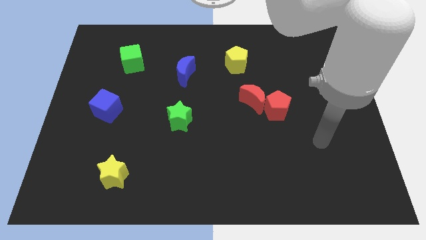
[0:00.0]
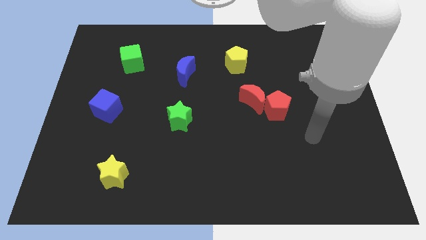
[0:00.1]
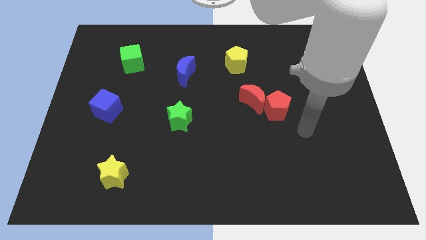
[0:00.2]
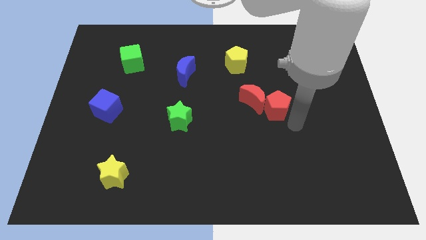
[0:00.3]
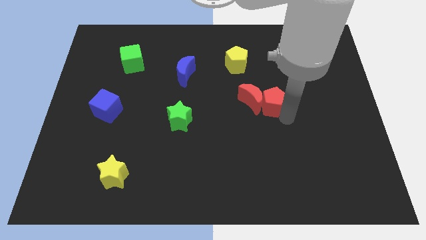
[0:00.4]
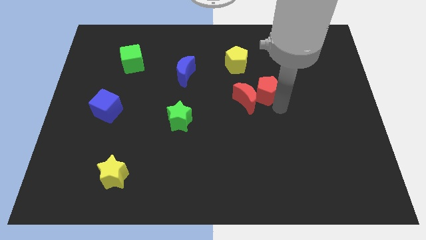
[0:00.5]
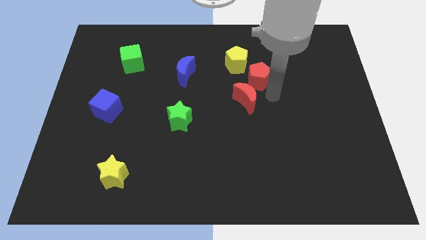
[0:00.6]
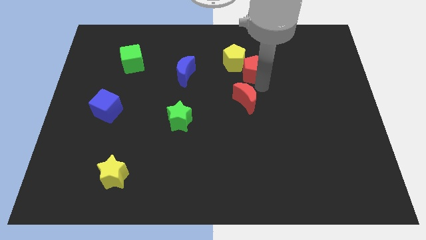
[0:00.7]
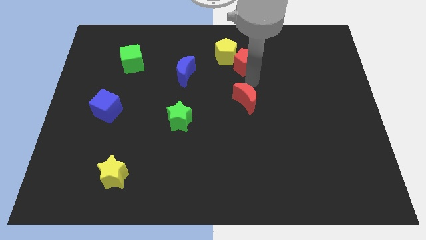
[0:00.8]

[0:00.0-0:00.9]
move the red moon away from the red pentagon

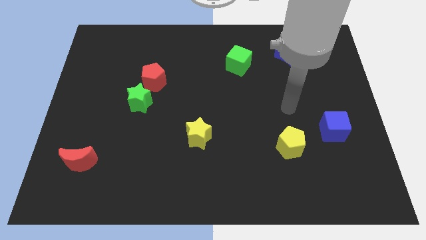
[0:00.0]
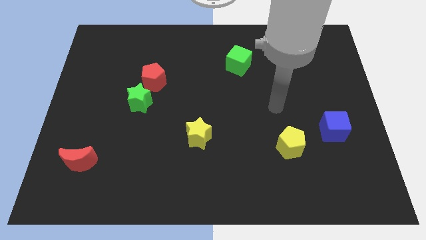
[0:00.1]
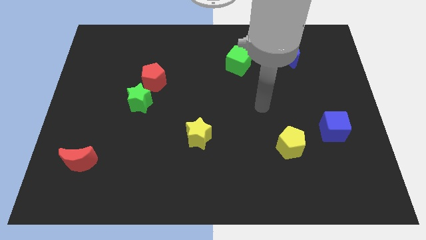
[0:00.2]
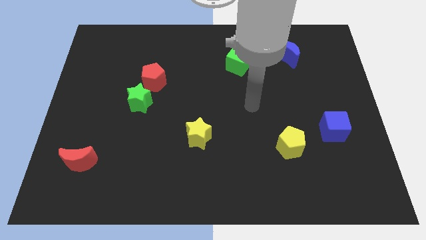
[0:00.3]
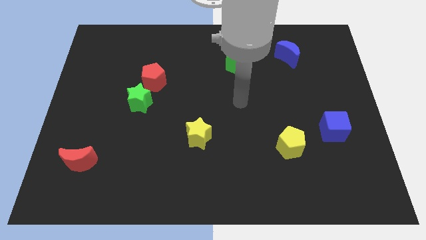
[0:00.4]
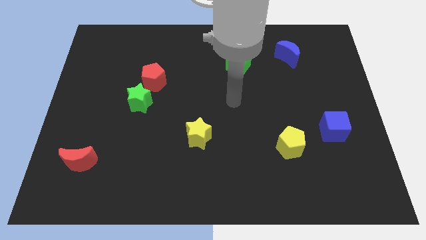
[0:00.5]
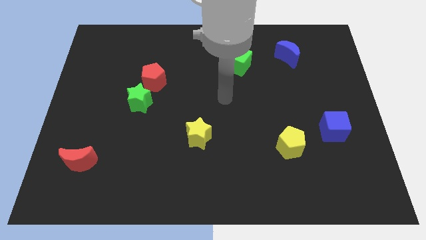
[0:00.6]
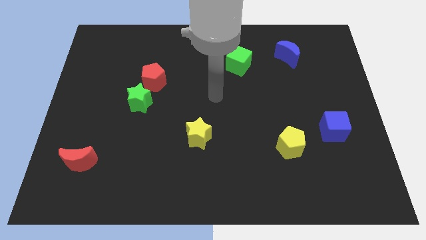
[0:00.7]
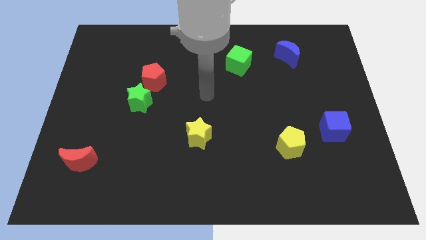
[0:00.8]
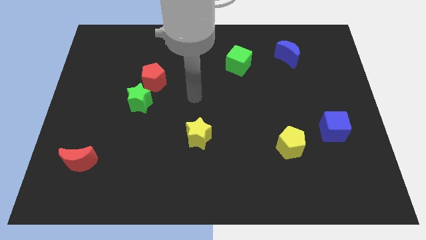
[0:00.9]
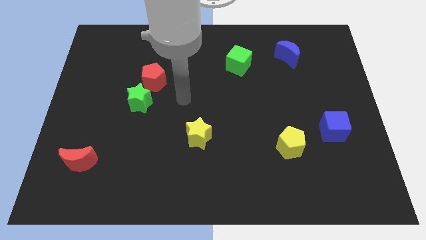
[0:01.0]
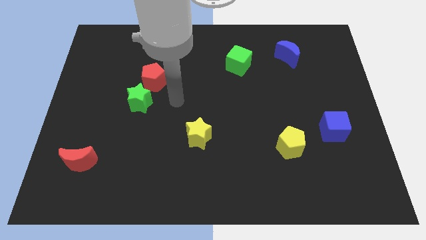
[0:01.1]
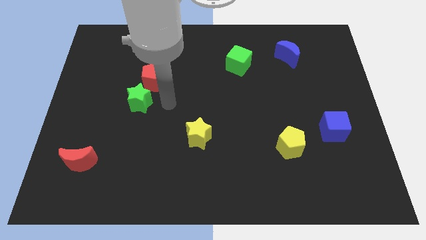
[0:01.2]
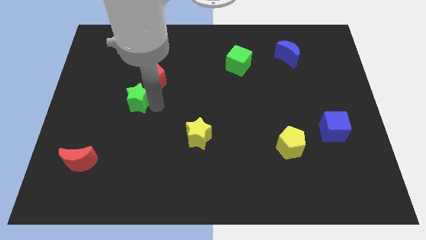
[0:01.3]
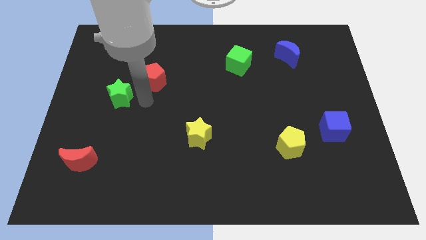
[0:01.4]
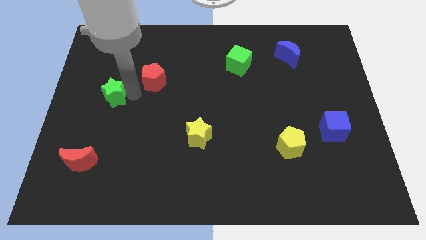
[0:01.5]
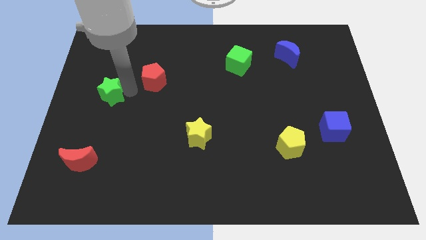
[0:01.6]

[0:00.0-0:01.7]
separate the red pentagon from the green star

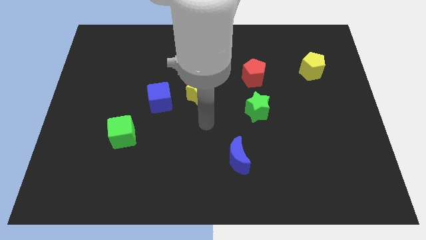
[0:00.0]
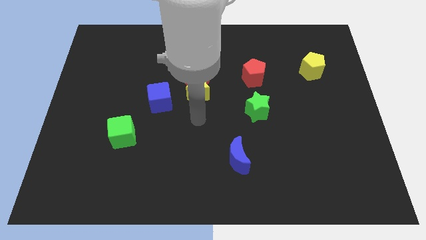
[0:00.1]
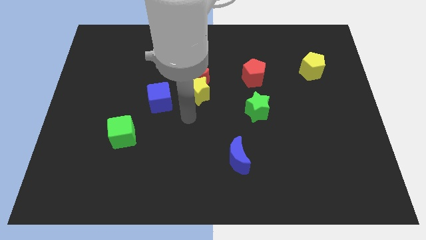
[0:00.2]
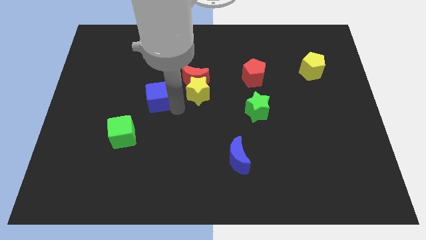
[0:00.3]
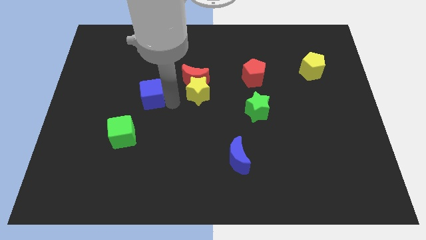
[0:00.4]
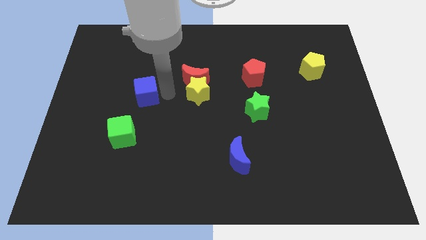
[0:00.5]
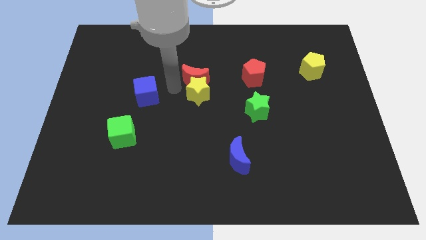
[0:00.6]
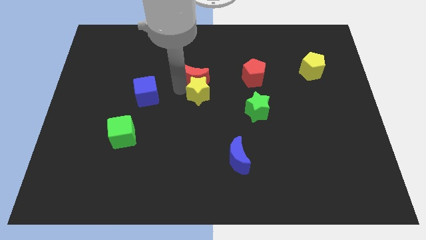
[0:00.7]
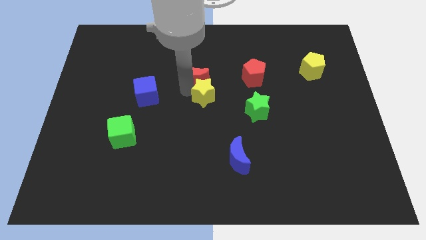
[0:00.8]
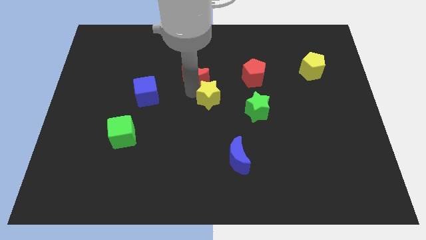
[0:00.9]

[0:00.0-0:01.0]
move the yellow star away from the red moon and blue cube

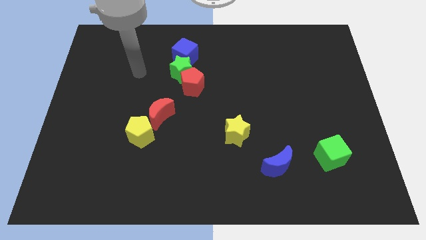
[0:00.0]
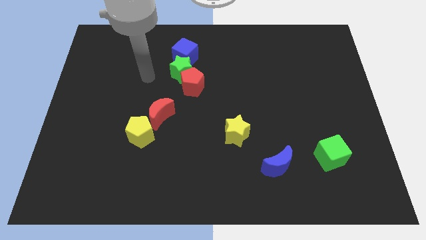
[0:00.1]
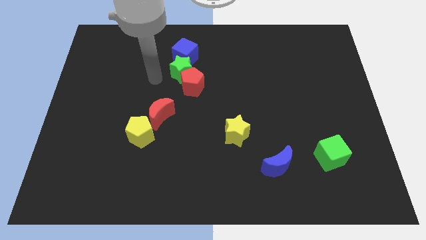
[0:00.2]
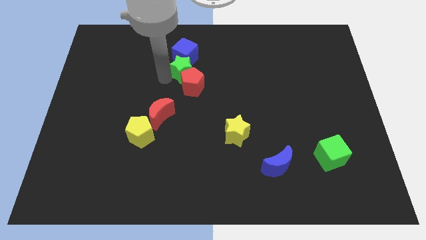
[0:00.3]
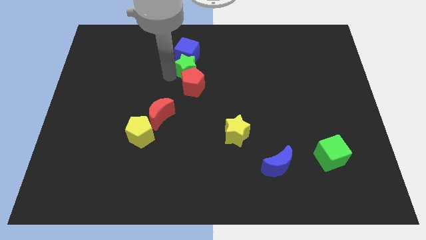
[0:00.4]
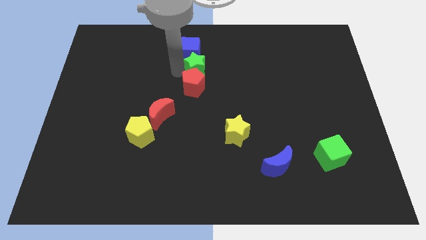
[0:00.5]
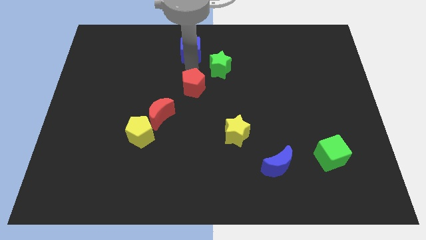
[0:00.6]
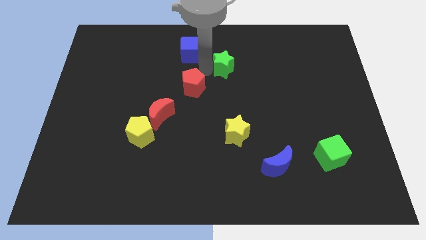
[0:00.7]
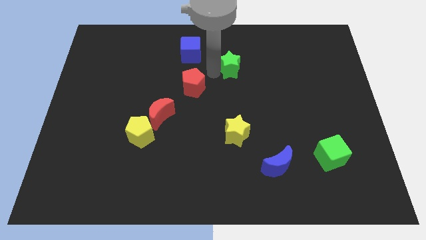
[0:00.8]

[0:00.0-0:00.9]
move the red pentagon away from the green star

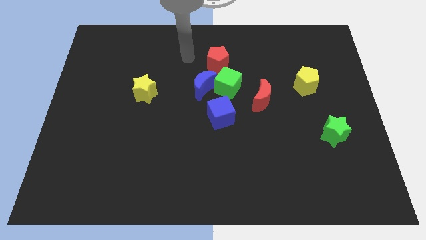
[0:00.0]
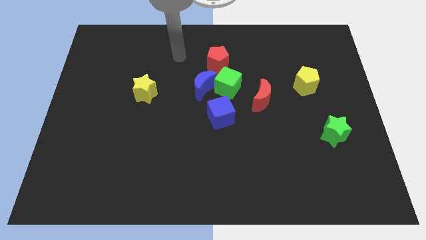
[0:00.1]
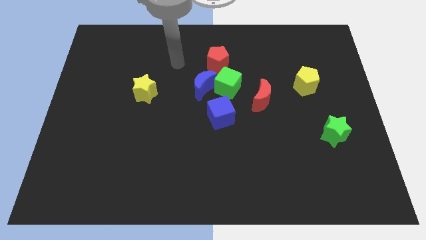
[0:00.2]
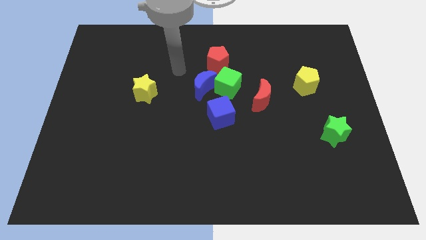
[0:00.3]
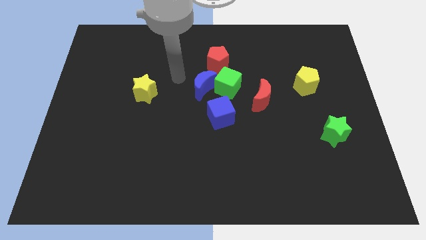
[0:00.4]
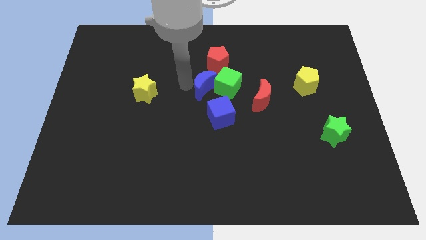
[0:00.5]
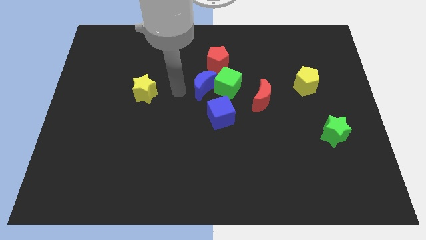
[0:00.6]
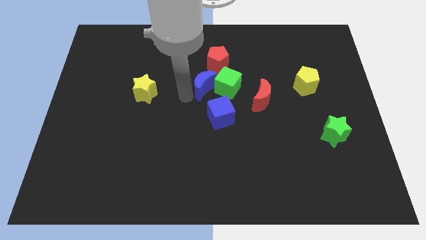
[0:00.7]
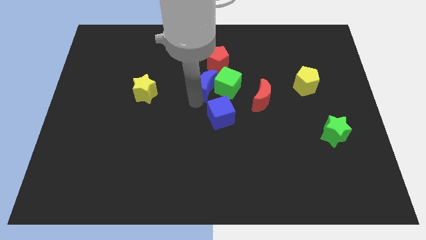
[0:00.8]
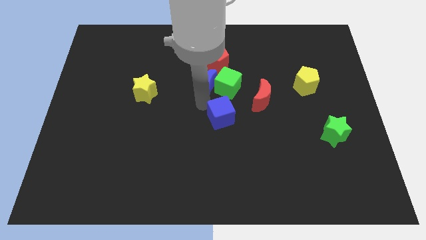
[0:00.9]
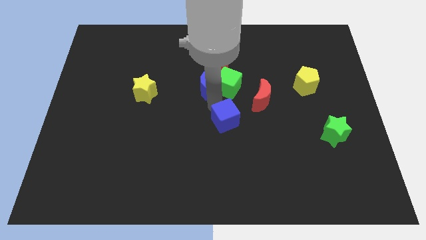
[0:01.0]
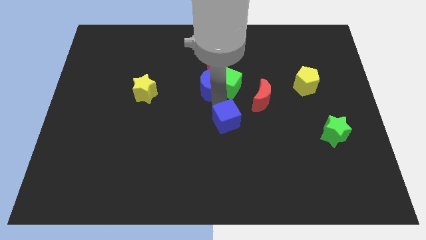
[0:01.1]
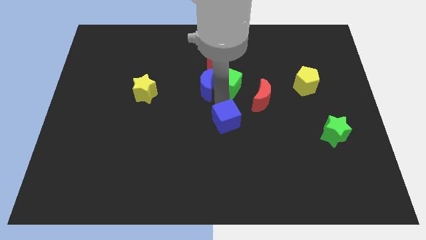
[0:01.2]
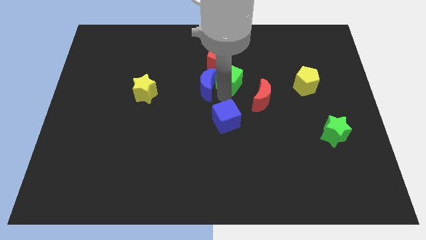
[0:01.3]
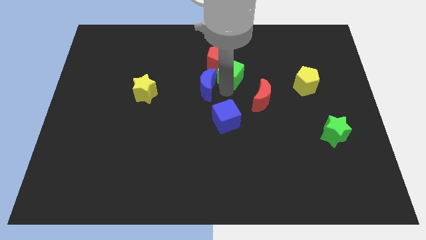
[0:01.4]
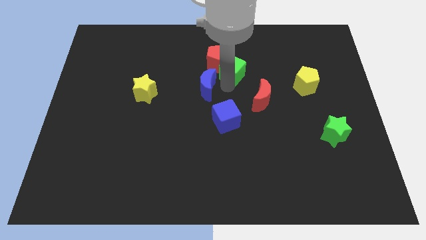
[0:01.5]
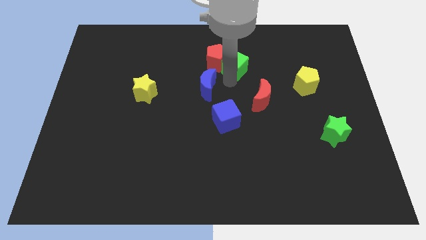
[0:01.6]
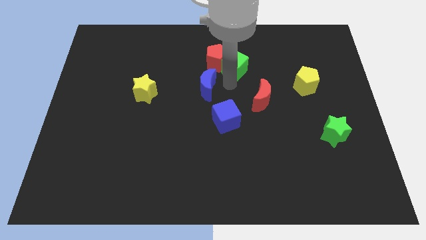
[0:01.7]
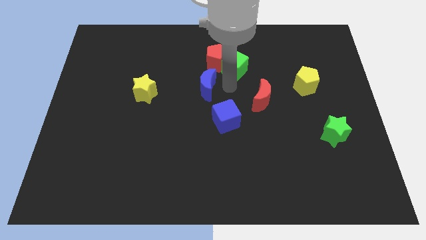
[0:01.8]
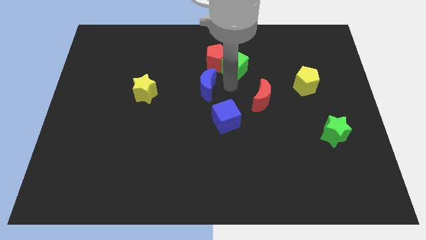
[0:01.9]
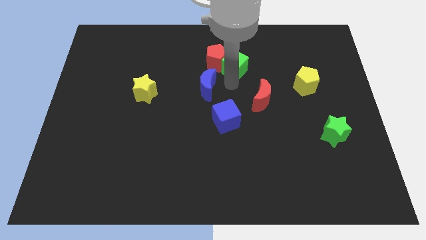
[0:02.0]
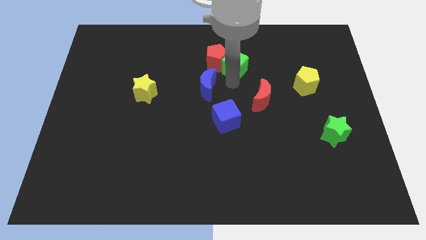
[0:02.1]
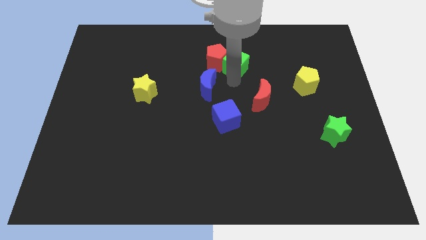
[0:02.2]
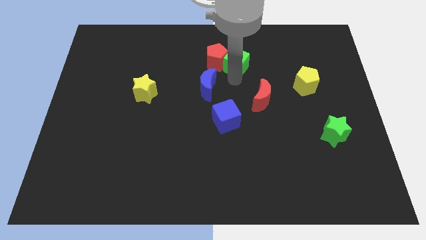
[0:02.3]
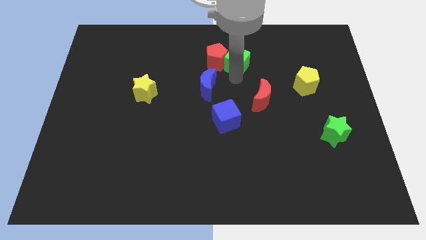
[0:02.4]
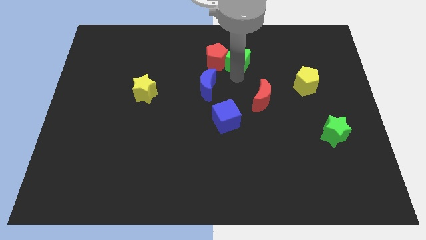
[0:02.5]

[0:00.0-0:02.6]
separate the green cube from the group

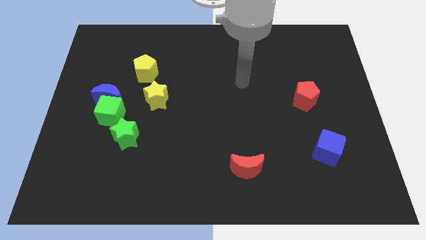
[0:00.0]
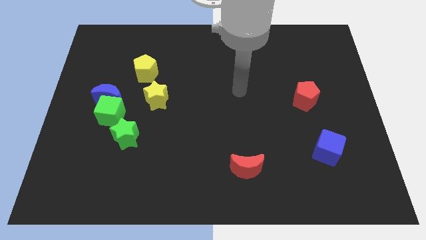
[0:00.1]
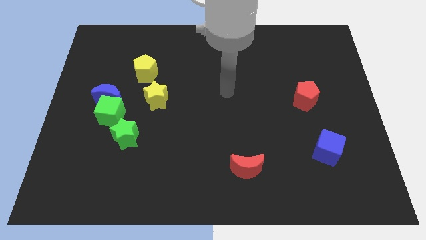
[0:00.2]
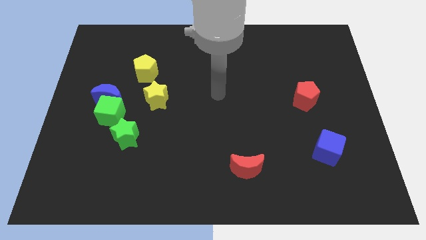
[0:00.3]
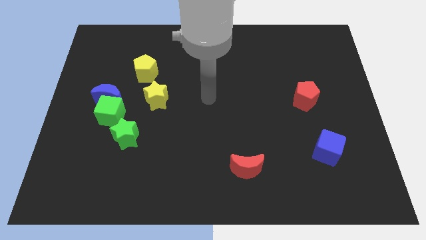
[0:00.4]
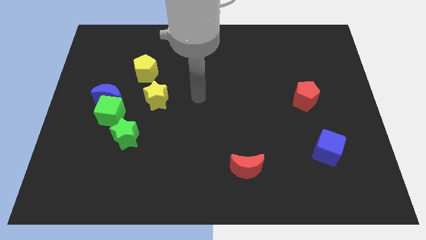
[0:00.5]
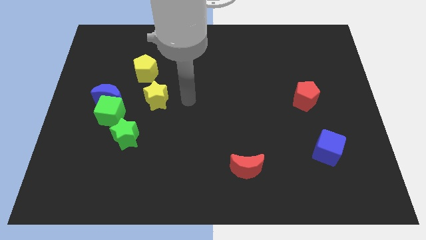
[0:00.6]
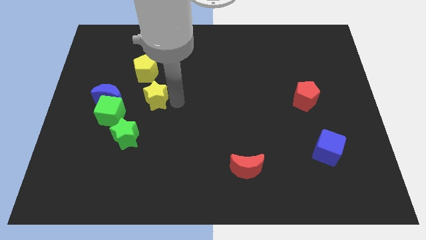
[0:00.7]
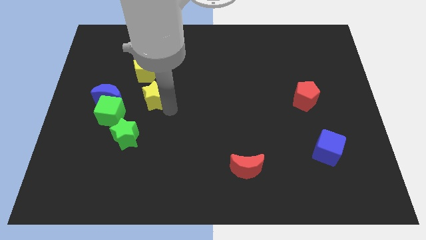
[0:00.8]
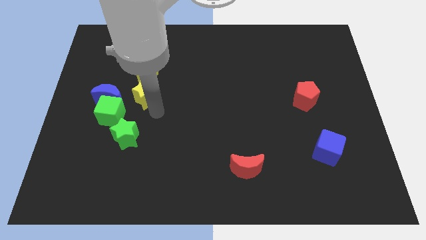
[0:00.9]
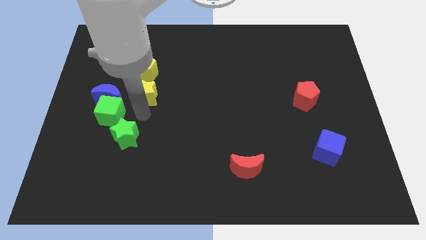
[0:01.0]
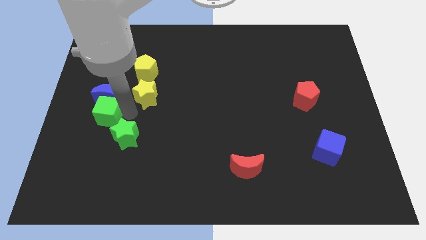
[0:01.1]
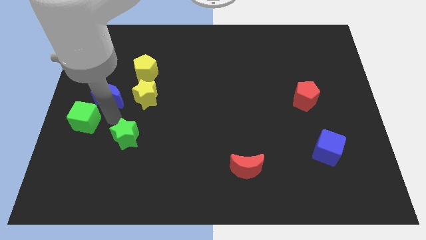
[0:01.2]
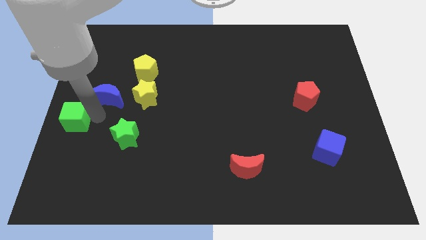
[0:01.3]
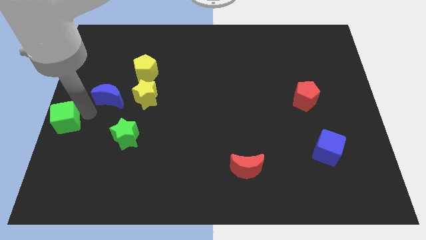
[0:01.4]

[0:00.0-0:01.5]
move the blue moon away from the green cube

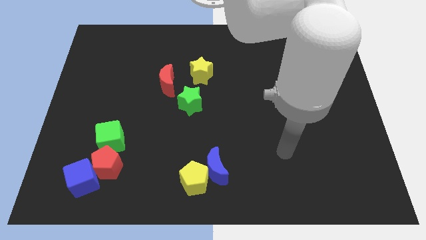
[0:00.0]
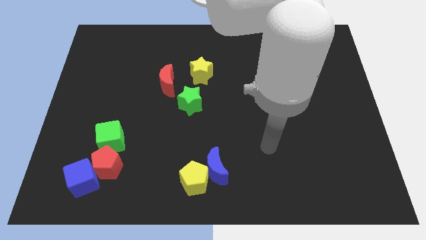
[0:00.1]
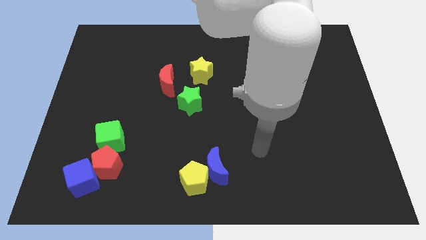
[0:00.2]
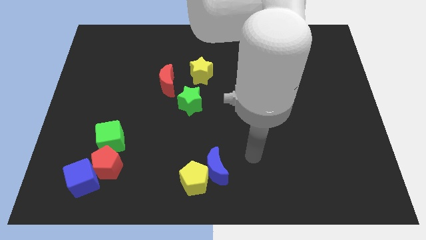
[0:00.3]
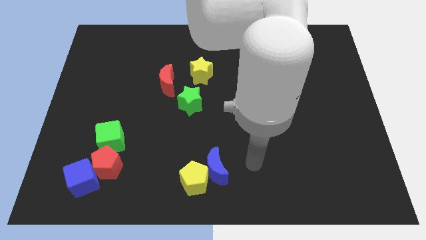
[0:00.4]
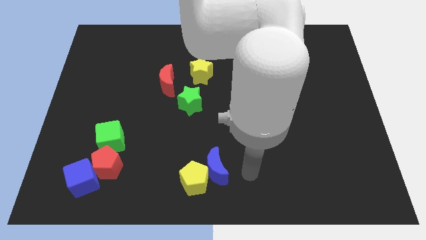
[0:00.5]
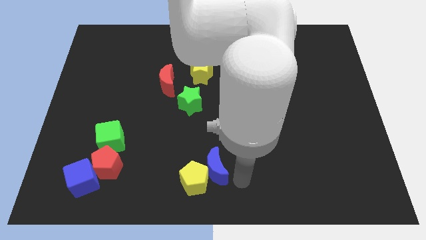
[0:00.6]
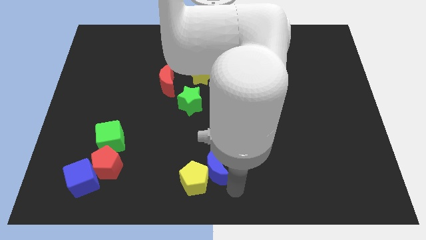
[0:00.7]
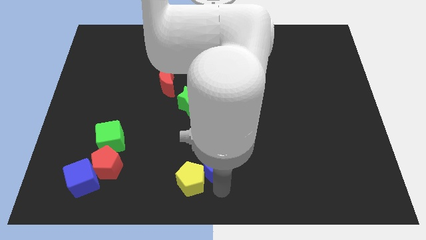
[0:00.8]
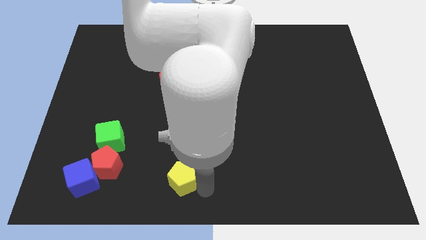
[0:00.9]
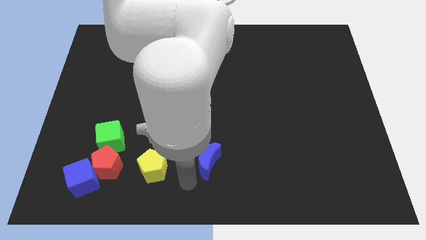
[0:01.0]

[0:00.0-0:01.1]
move the blue moon away from the yellow pentagon
